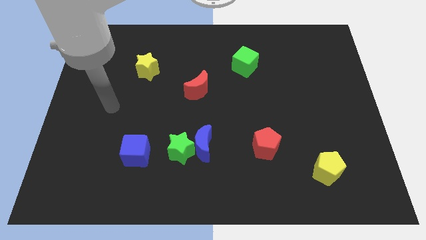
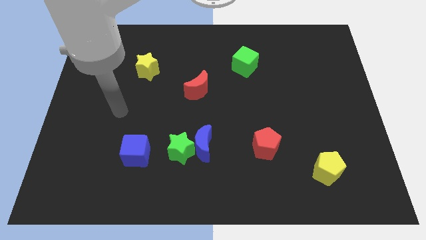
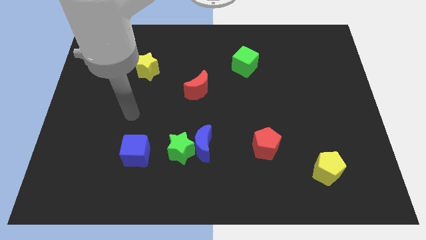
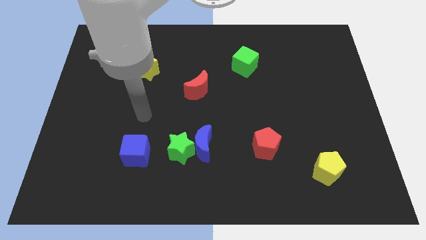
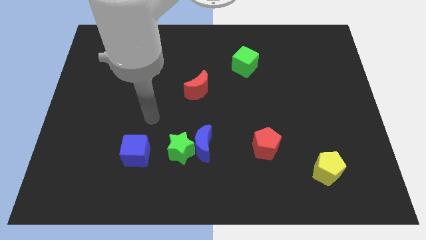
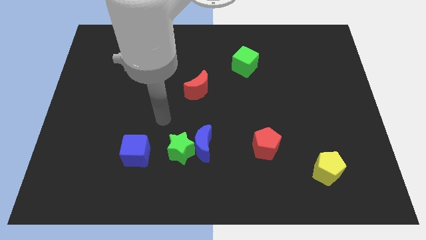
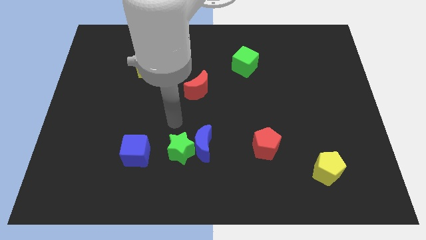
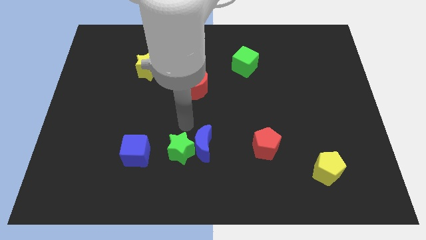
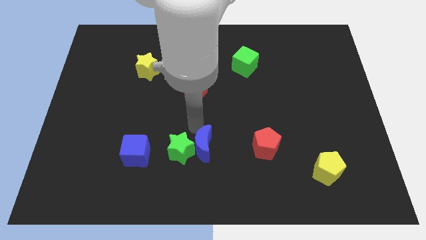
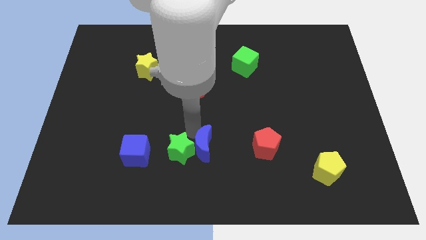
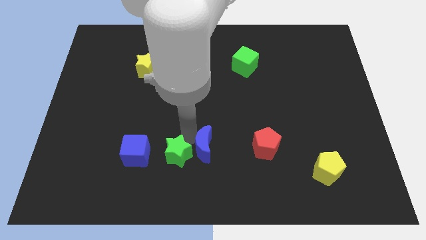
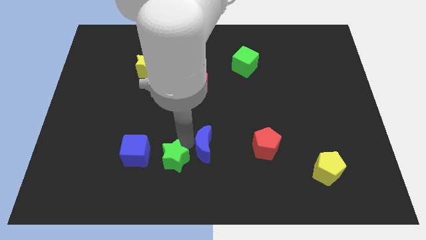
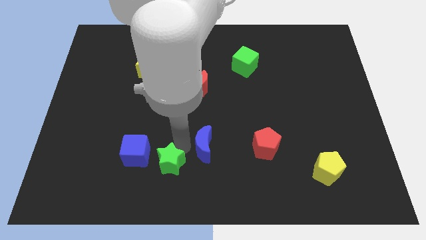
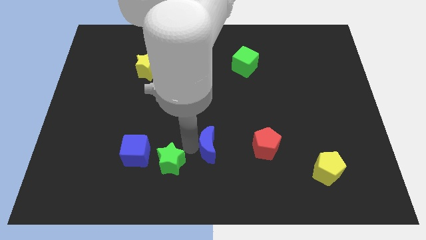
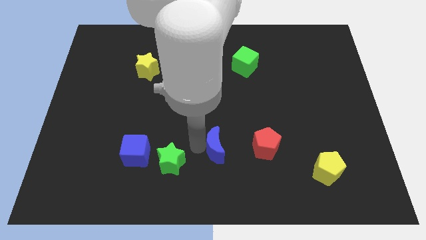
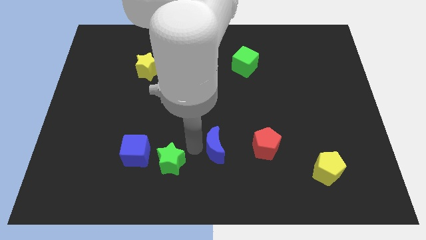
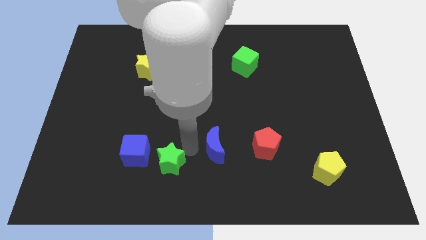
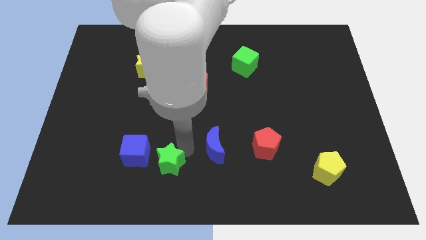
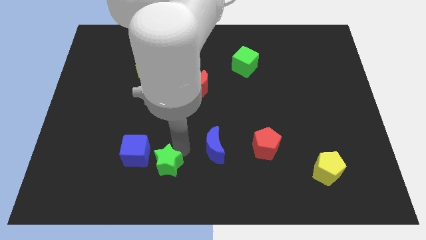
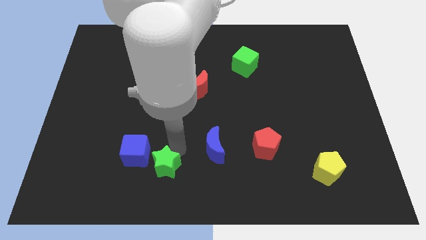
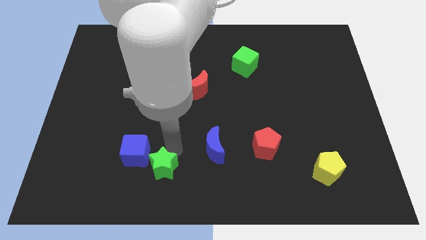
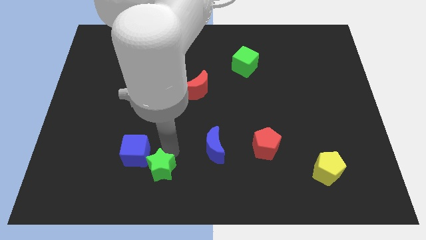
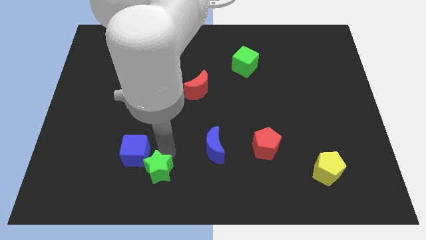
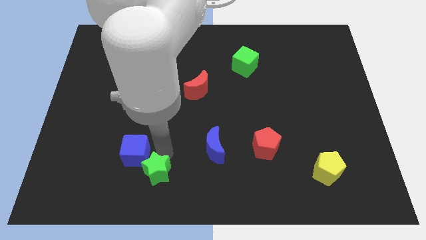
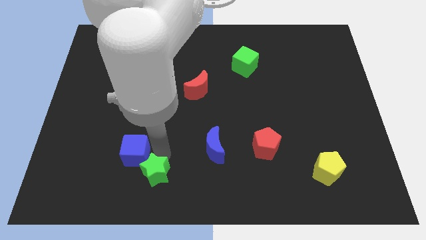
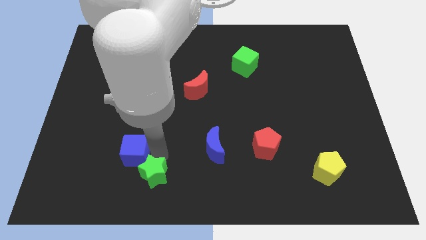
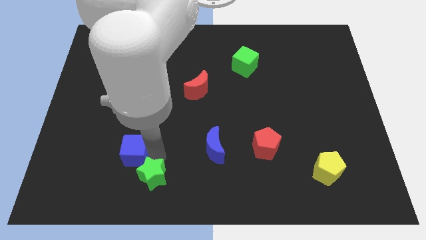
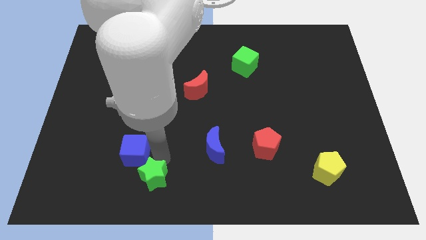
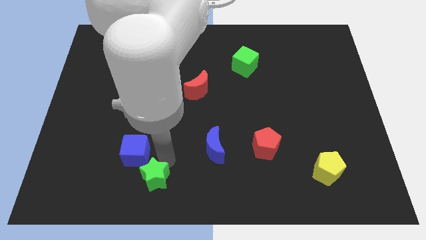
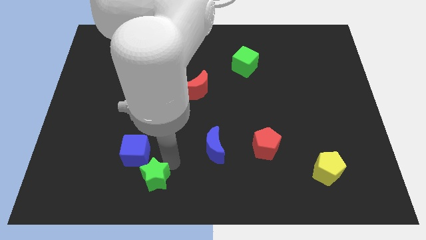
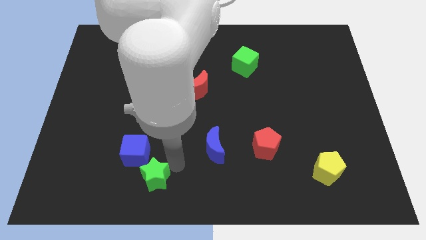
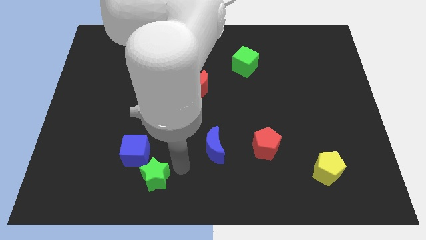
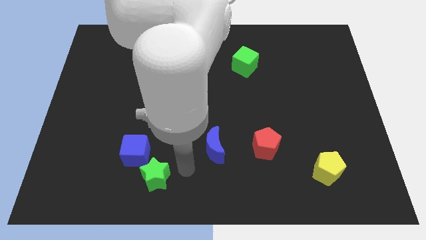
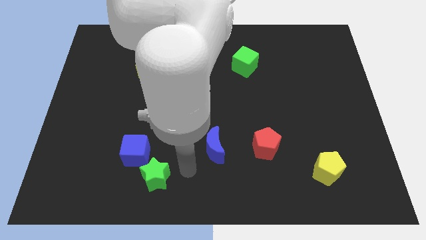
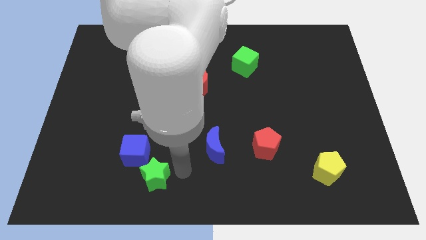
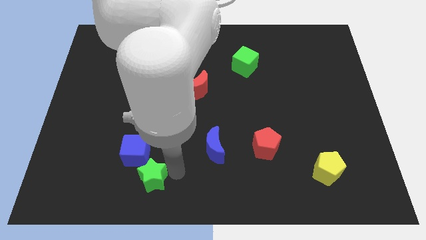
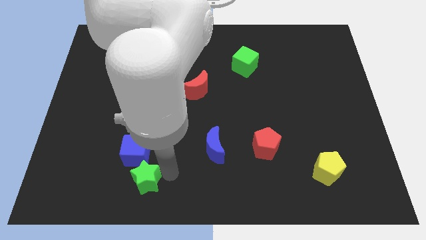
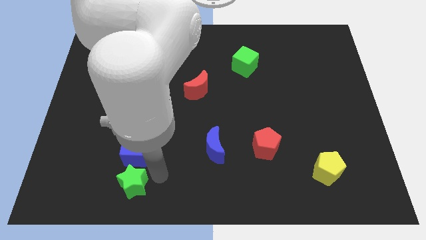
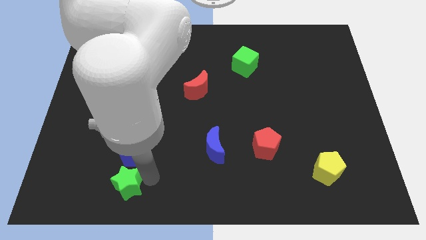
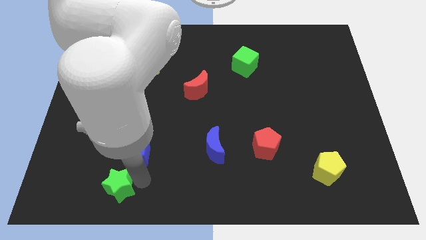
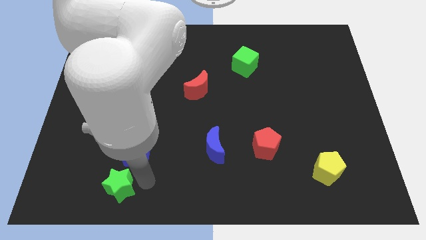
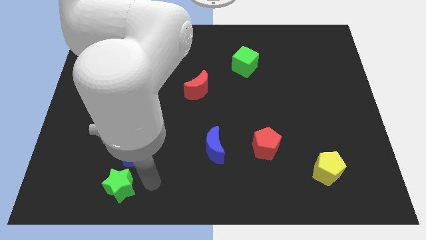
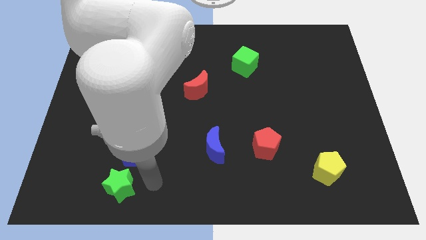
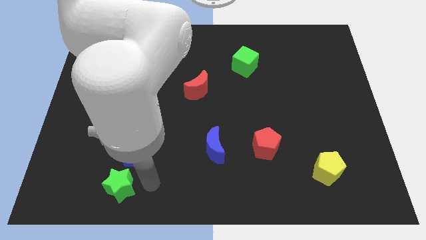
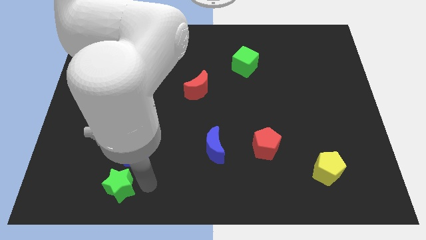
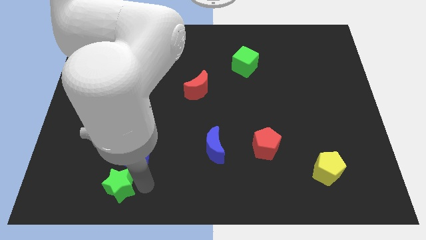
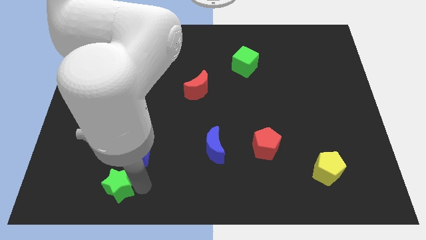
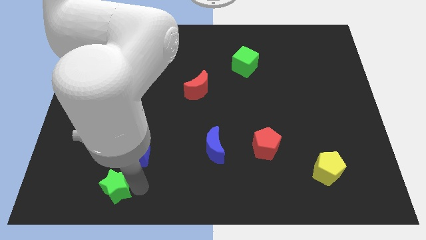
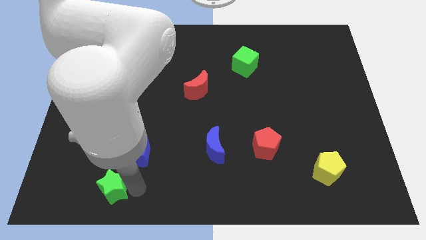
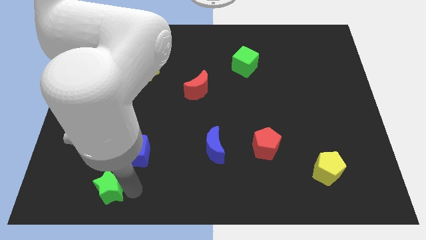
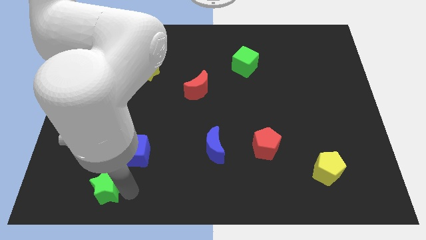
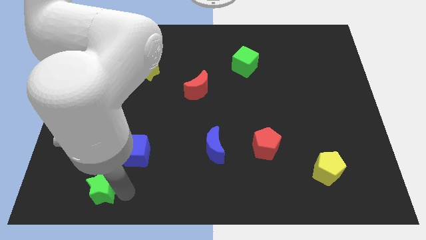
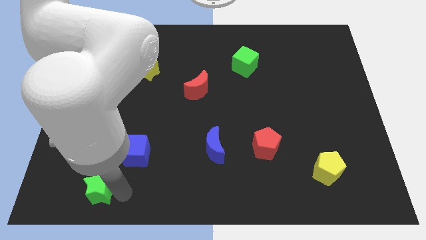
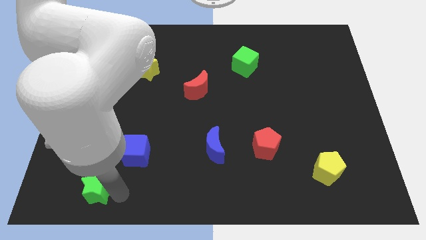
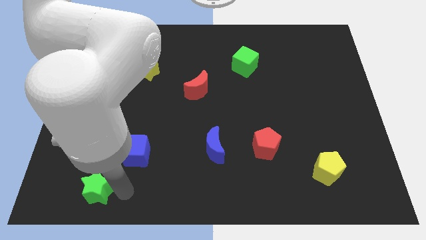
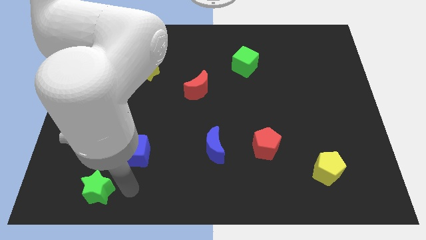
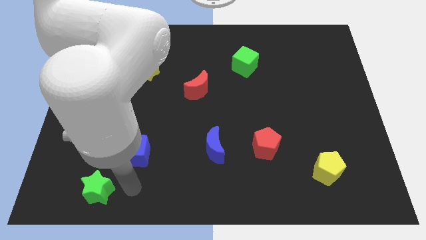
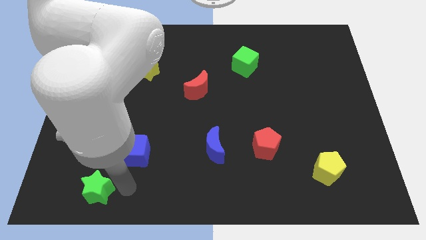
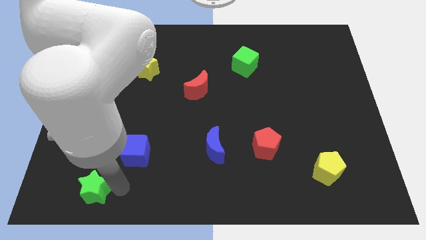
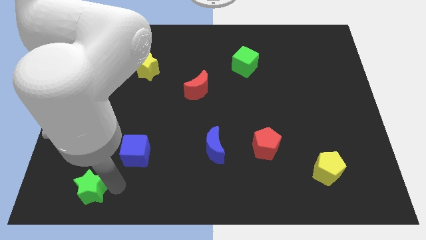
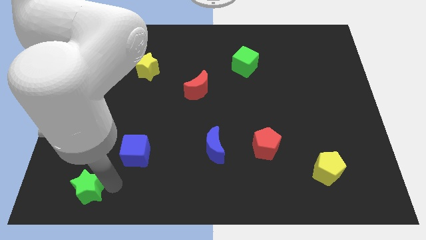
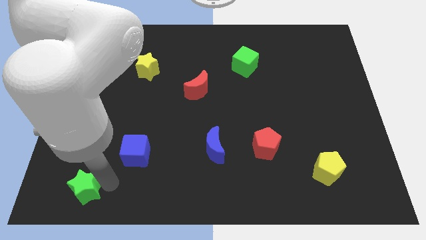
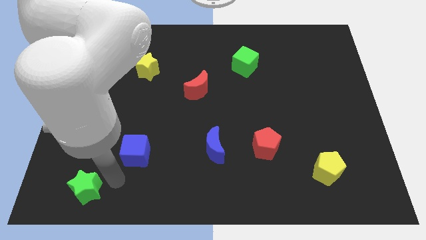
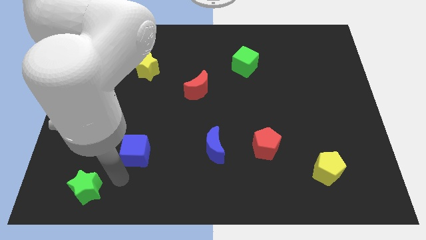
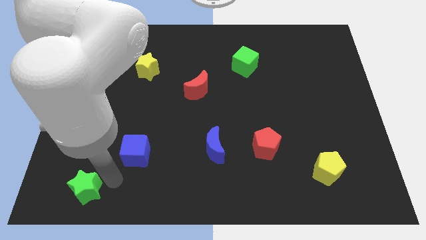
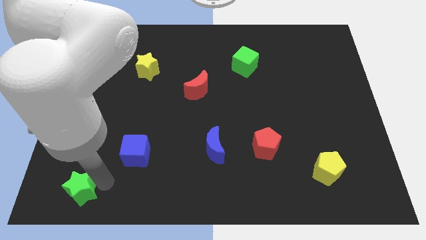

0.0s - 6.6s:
put the green star to the bottom left of the board
